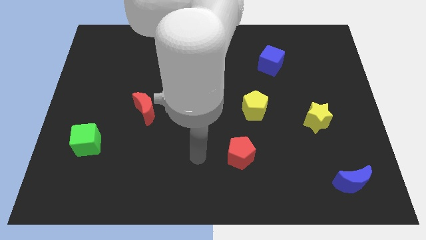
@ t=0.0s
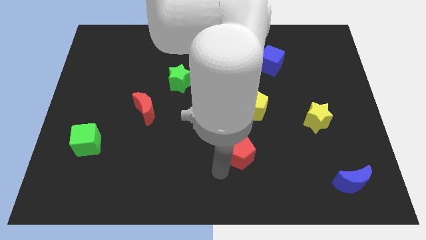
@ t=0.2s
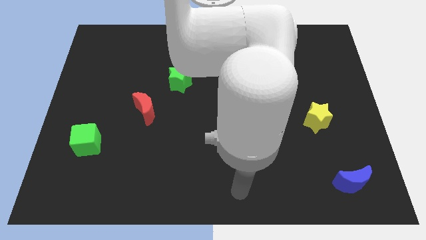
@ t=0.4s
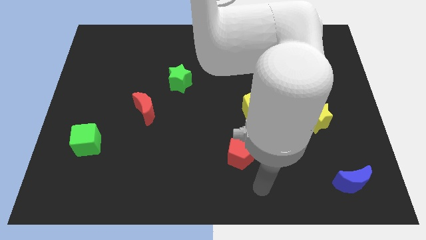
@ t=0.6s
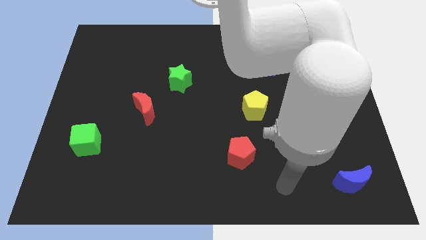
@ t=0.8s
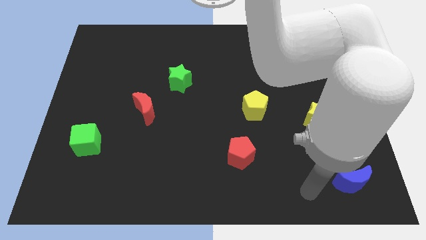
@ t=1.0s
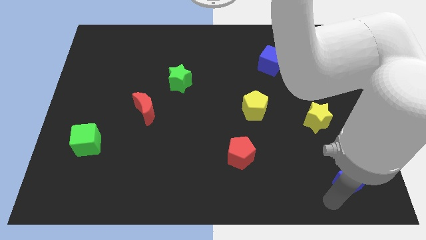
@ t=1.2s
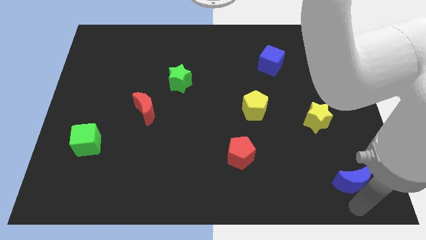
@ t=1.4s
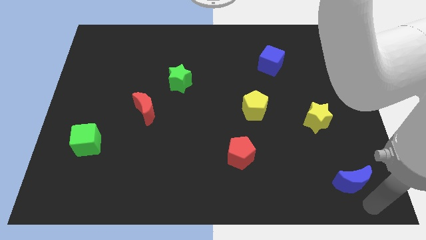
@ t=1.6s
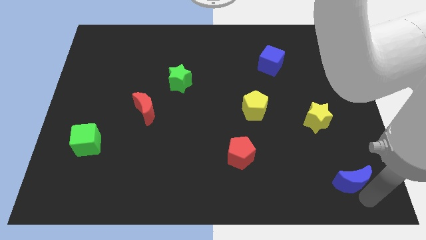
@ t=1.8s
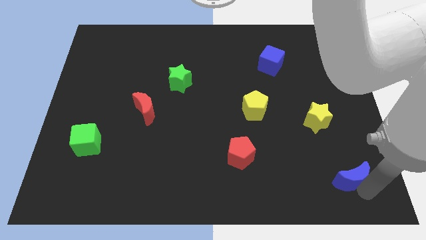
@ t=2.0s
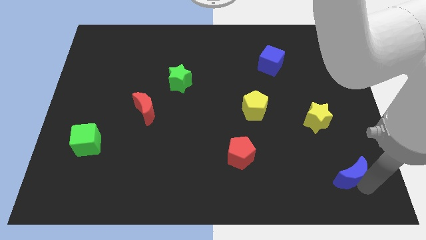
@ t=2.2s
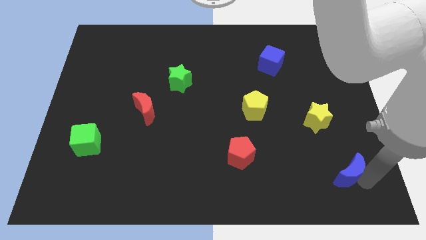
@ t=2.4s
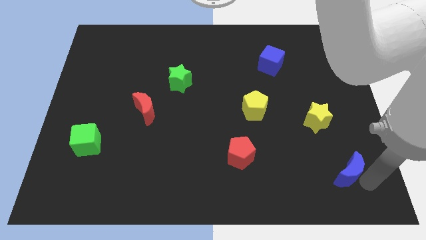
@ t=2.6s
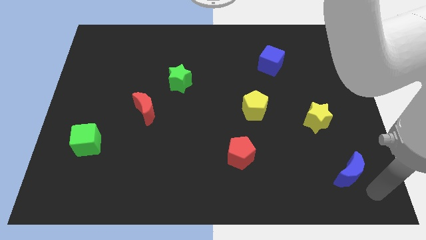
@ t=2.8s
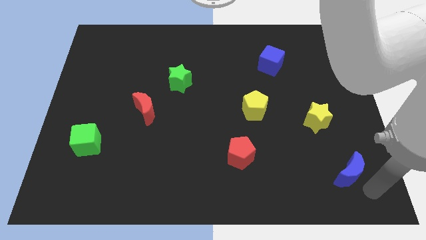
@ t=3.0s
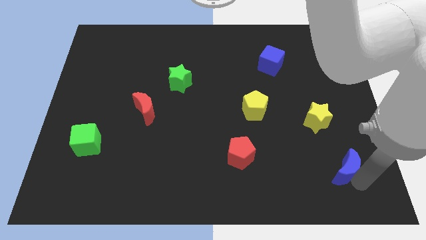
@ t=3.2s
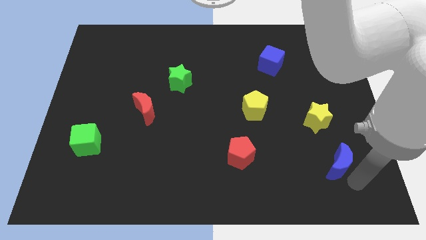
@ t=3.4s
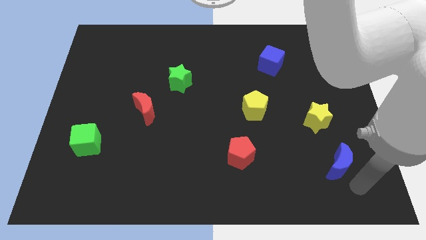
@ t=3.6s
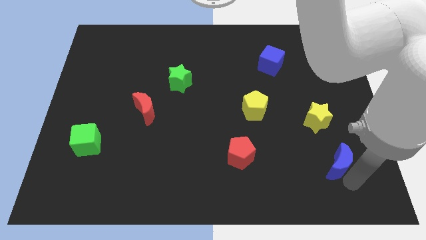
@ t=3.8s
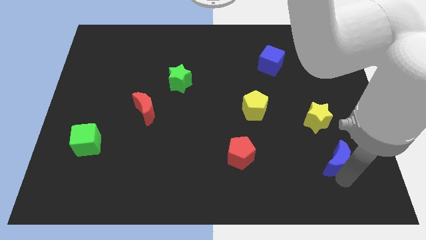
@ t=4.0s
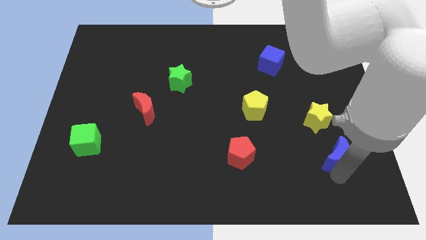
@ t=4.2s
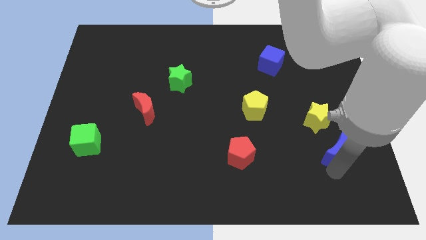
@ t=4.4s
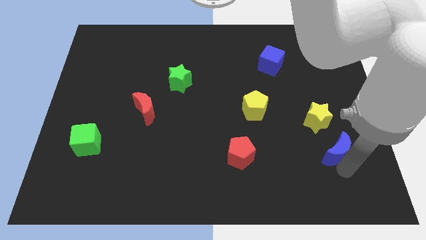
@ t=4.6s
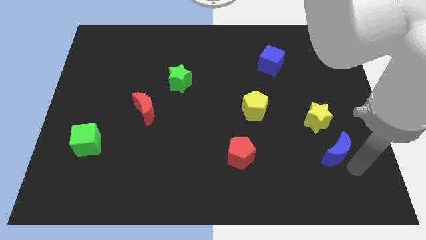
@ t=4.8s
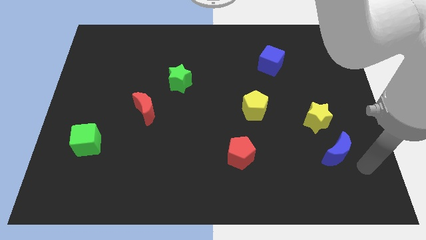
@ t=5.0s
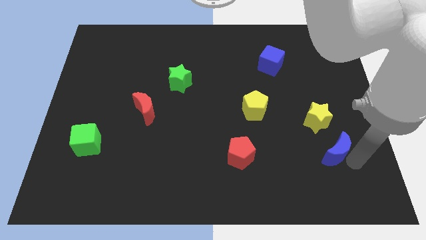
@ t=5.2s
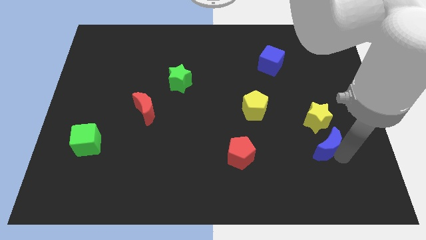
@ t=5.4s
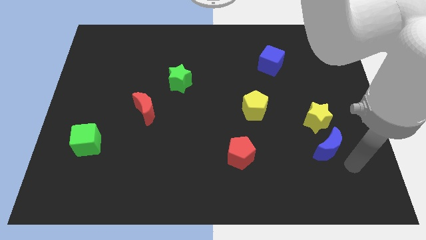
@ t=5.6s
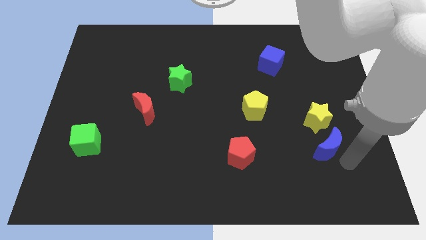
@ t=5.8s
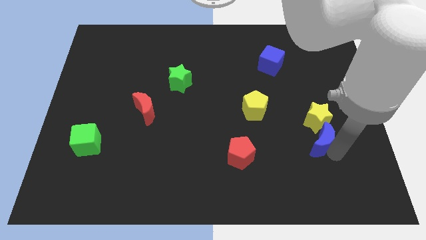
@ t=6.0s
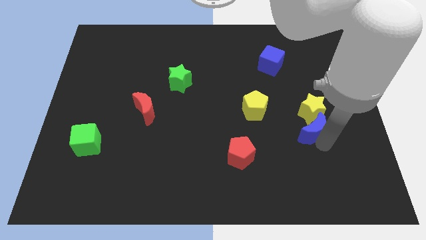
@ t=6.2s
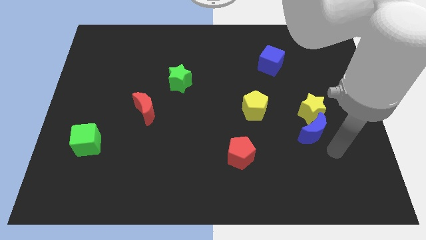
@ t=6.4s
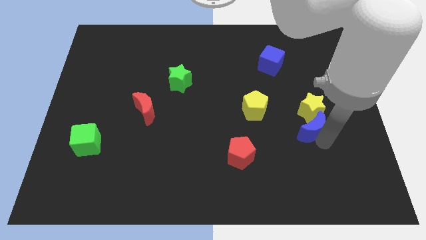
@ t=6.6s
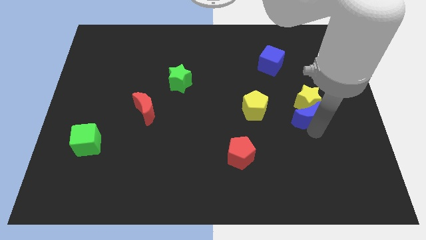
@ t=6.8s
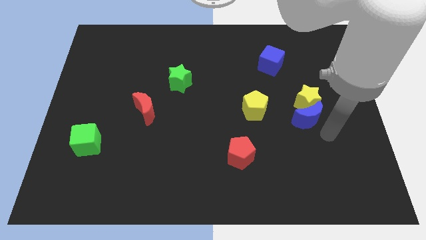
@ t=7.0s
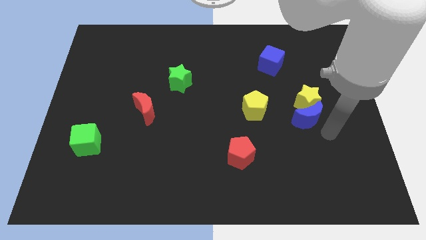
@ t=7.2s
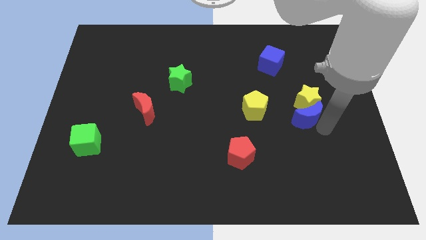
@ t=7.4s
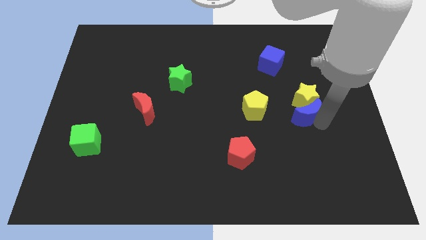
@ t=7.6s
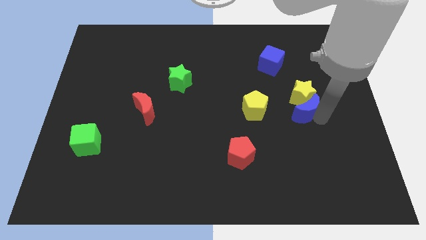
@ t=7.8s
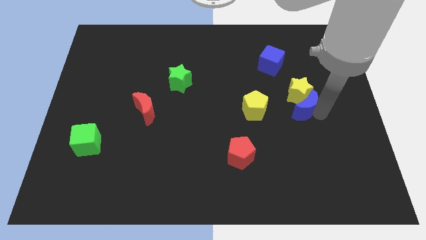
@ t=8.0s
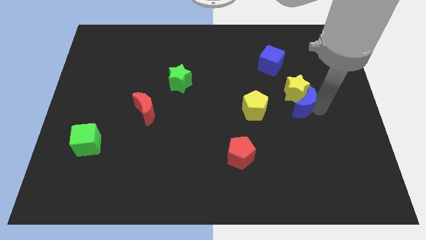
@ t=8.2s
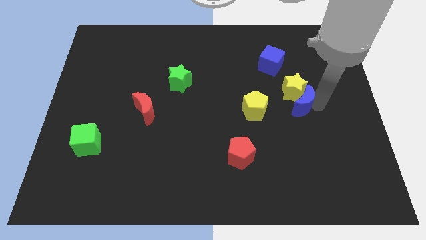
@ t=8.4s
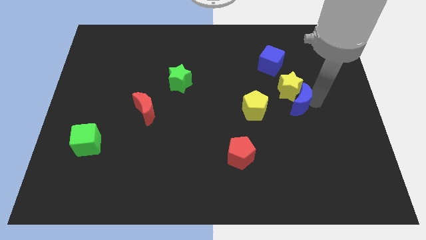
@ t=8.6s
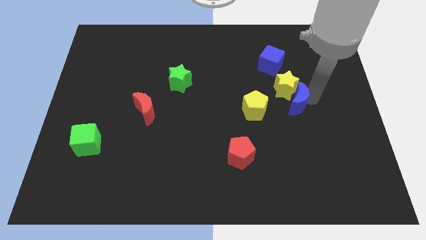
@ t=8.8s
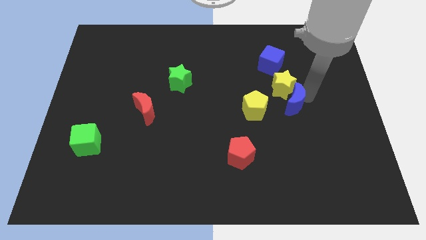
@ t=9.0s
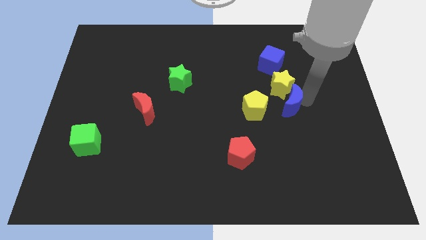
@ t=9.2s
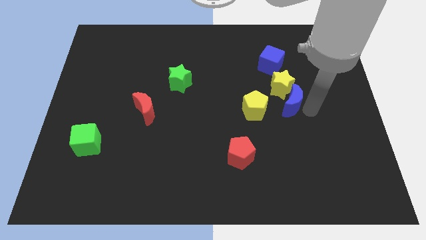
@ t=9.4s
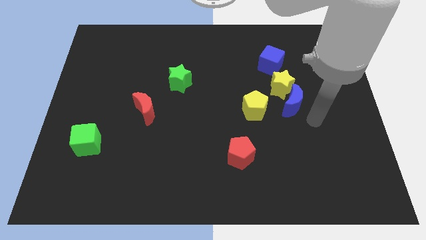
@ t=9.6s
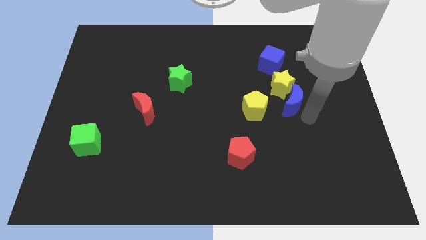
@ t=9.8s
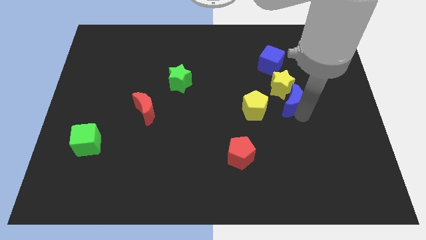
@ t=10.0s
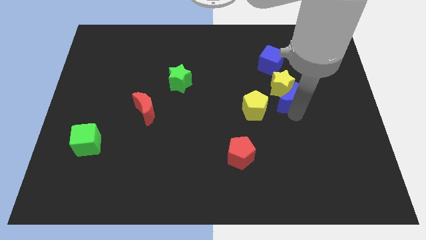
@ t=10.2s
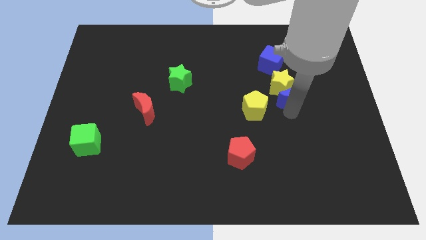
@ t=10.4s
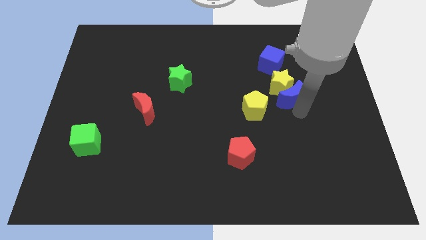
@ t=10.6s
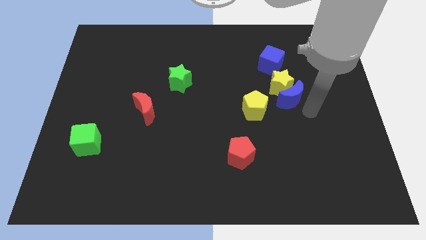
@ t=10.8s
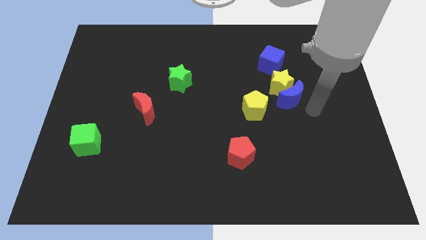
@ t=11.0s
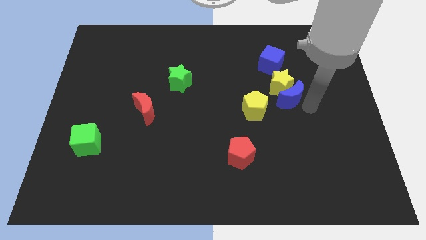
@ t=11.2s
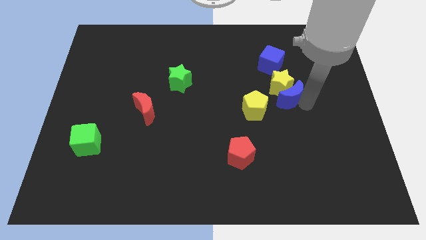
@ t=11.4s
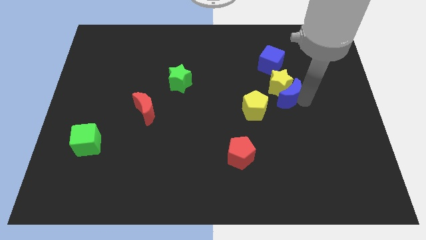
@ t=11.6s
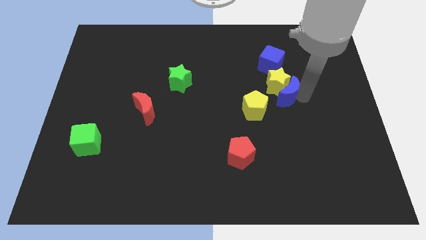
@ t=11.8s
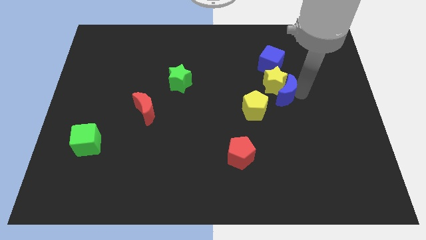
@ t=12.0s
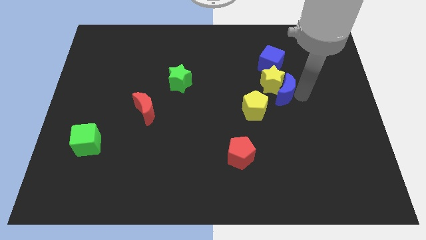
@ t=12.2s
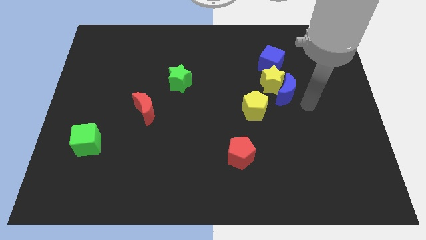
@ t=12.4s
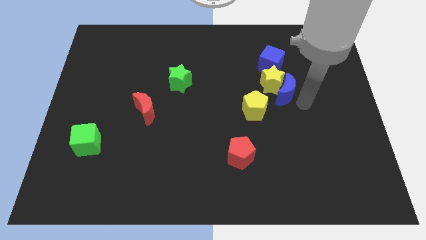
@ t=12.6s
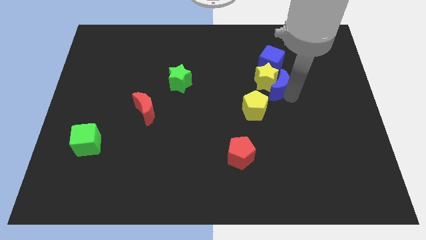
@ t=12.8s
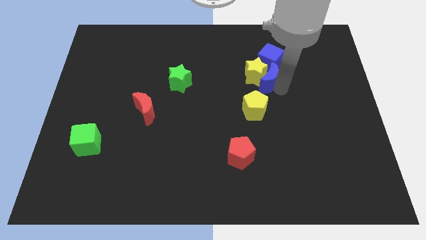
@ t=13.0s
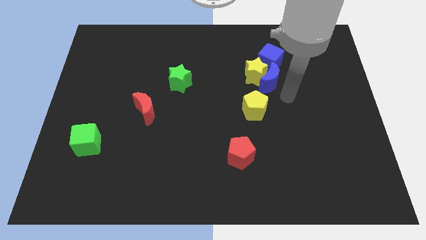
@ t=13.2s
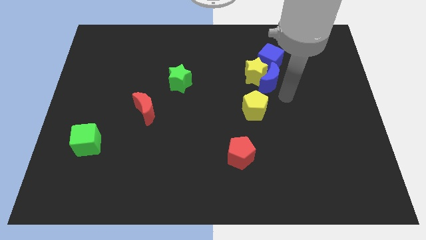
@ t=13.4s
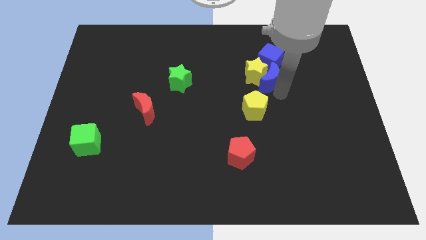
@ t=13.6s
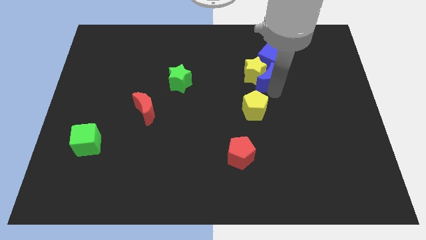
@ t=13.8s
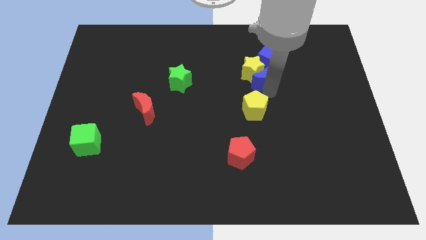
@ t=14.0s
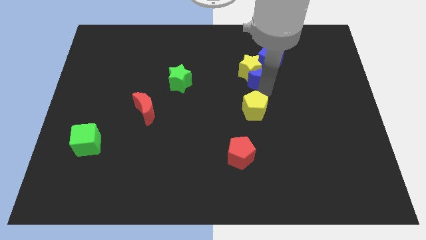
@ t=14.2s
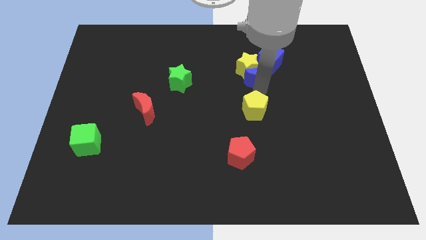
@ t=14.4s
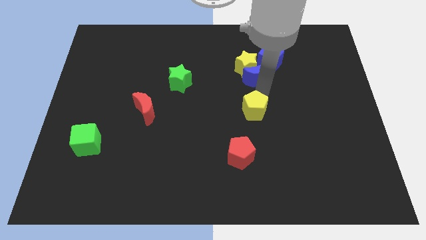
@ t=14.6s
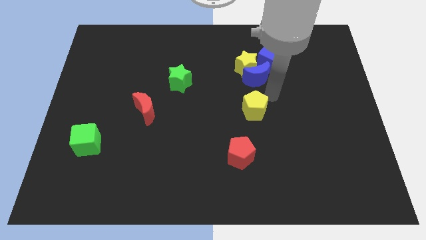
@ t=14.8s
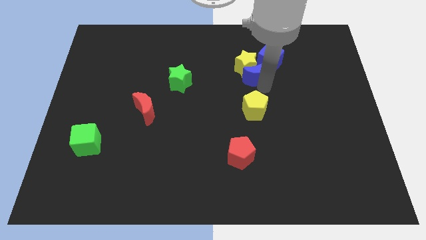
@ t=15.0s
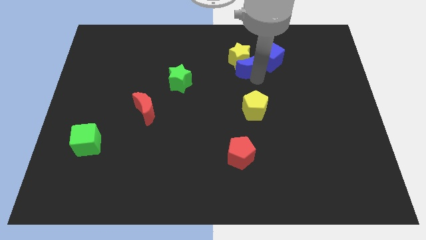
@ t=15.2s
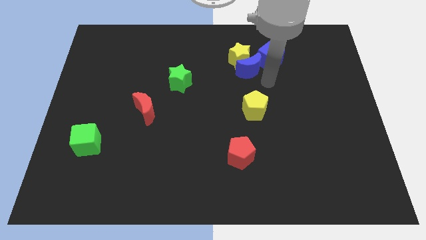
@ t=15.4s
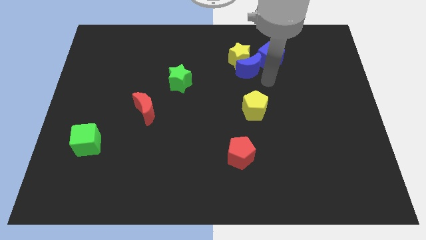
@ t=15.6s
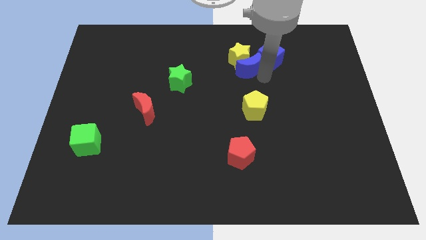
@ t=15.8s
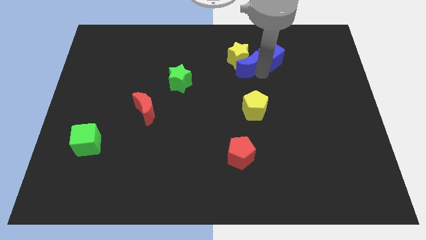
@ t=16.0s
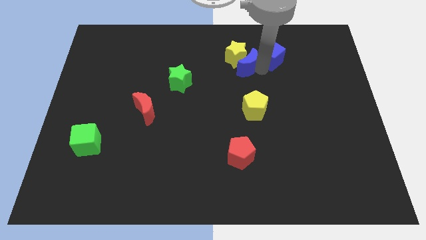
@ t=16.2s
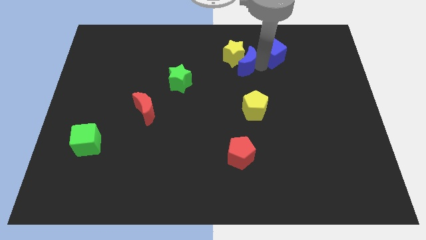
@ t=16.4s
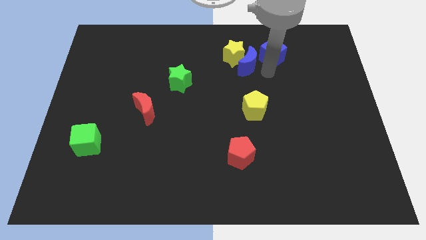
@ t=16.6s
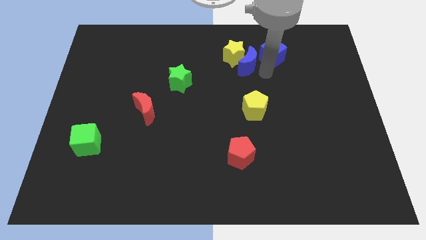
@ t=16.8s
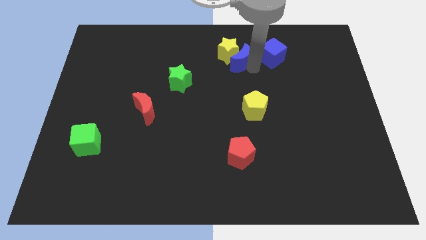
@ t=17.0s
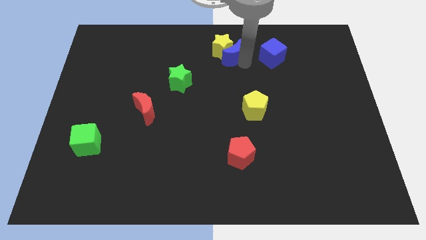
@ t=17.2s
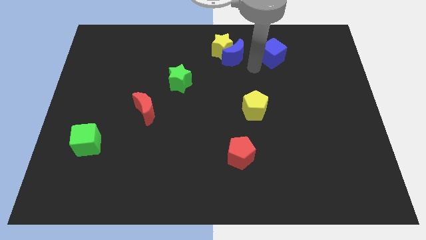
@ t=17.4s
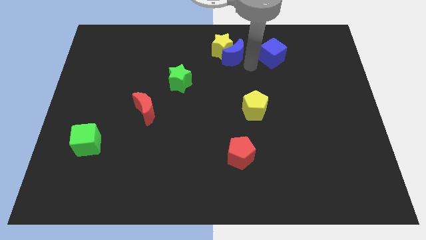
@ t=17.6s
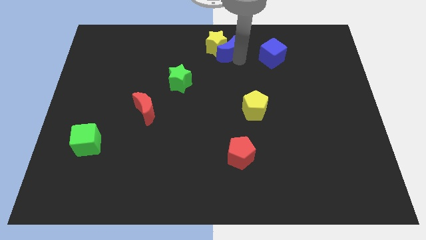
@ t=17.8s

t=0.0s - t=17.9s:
put the blue moon to the towards your base
